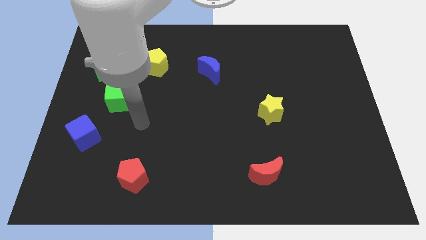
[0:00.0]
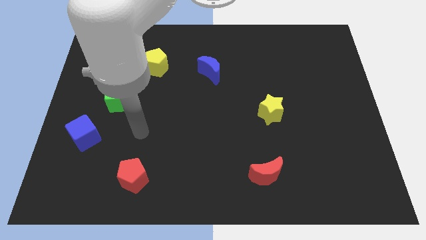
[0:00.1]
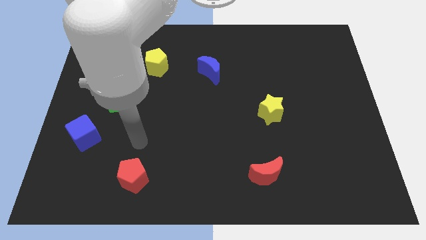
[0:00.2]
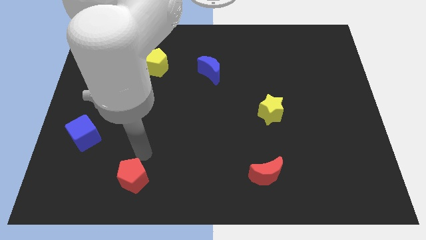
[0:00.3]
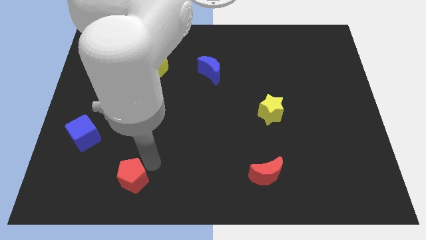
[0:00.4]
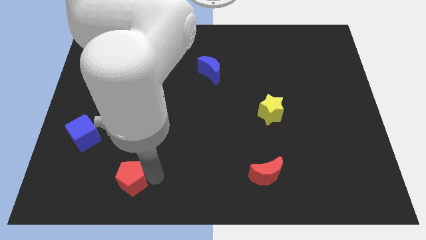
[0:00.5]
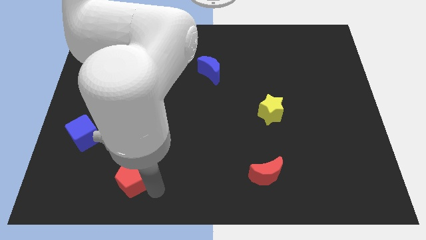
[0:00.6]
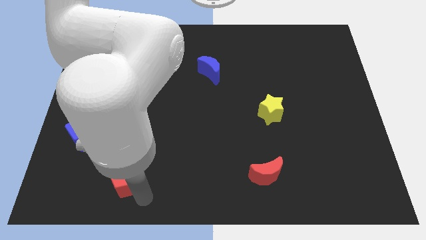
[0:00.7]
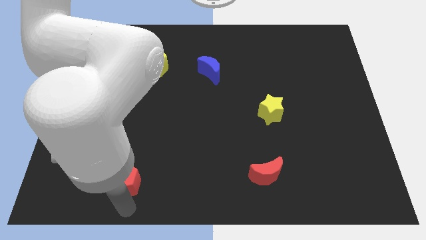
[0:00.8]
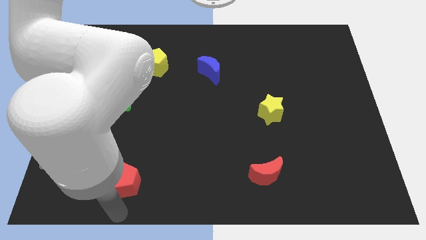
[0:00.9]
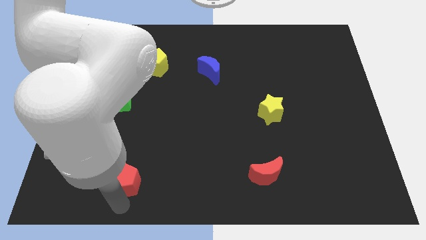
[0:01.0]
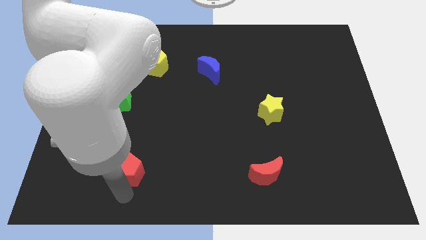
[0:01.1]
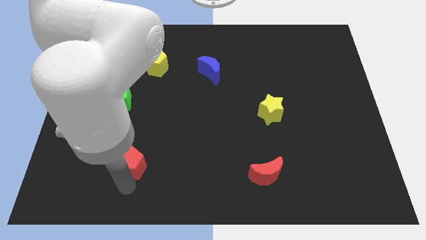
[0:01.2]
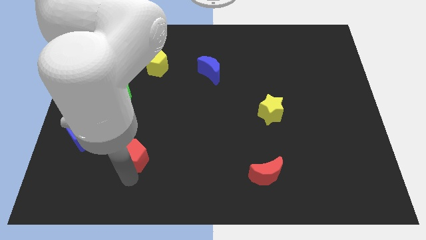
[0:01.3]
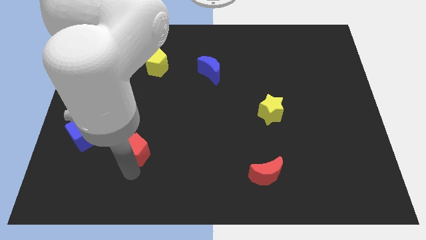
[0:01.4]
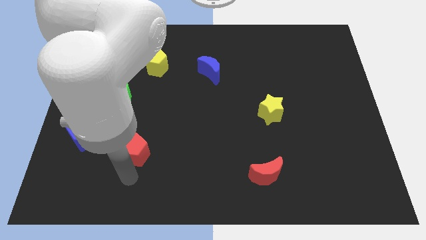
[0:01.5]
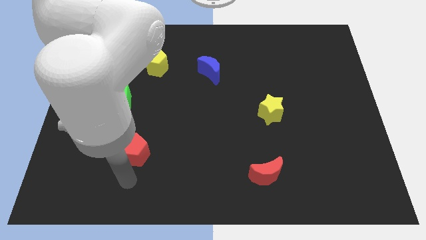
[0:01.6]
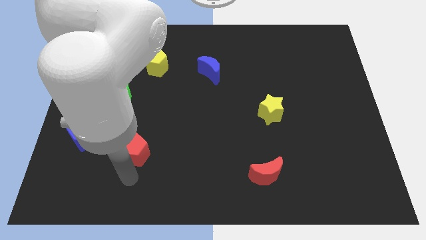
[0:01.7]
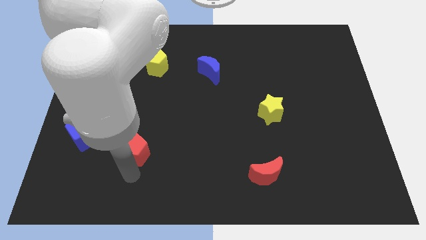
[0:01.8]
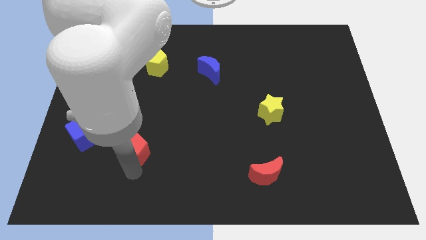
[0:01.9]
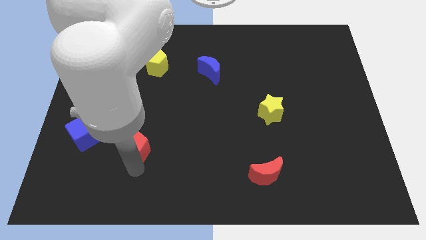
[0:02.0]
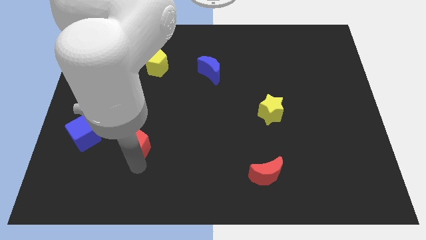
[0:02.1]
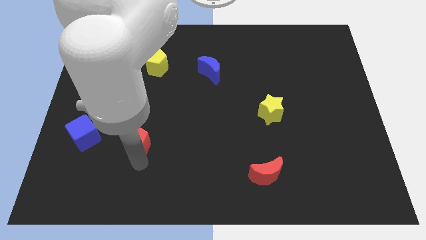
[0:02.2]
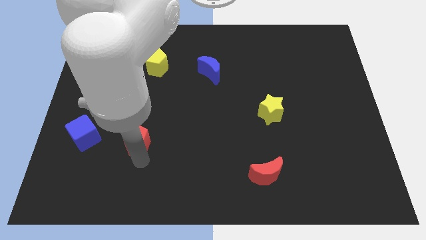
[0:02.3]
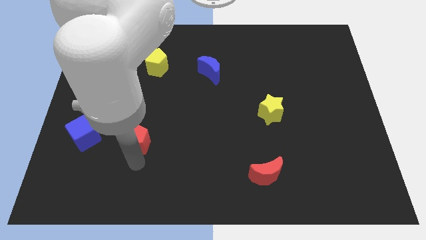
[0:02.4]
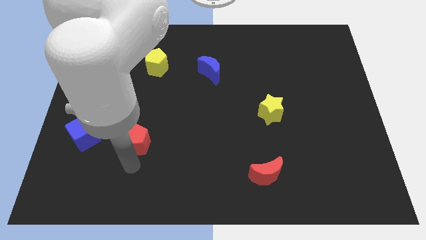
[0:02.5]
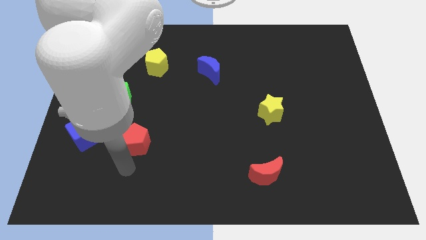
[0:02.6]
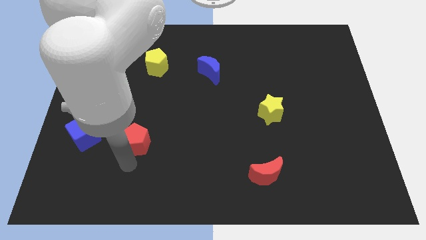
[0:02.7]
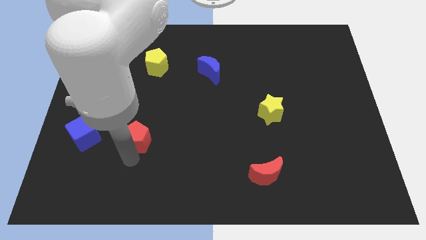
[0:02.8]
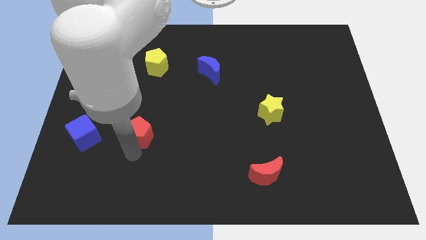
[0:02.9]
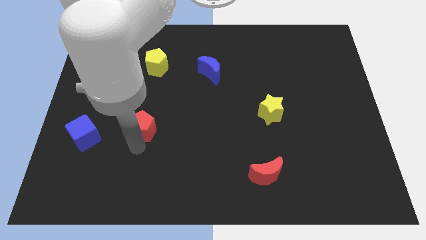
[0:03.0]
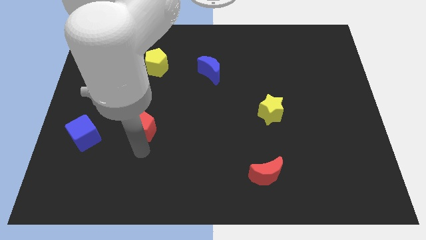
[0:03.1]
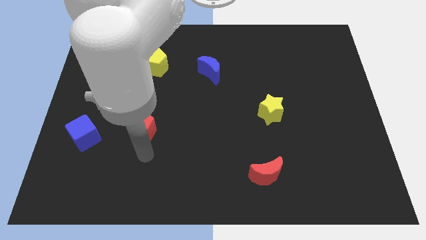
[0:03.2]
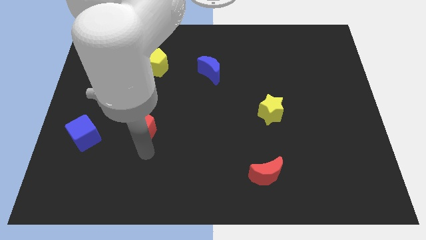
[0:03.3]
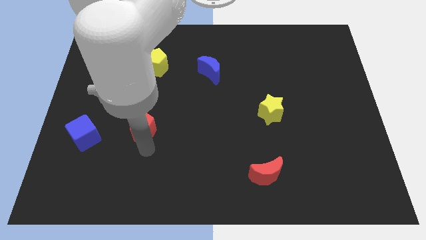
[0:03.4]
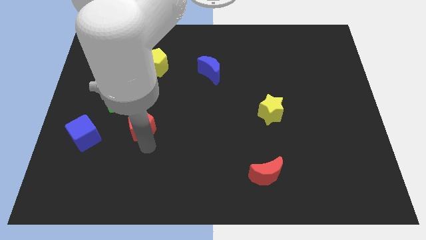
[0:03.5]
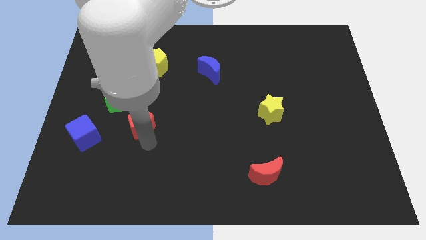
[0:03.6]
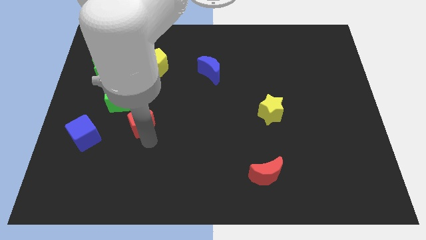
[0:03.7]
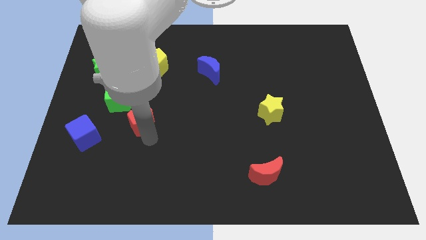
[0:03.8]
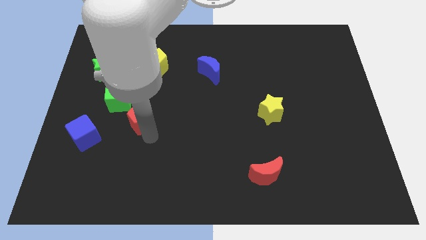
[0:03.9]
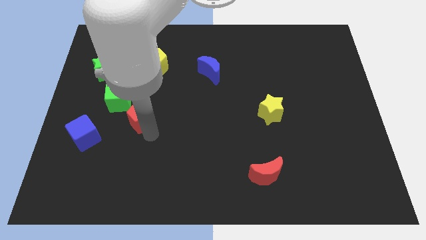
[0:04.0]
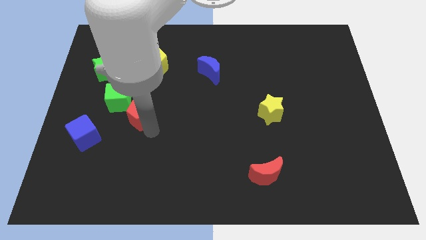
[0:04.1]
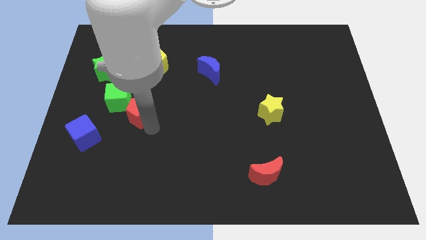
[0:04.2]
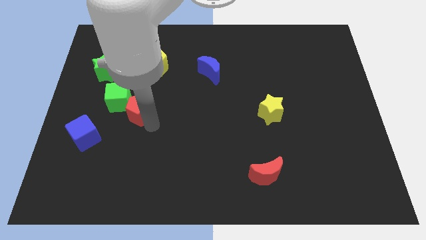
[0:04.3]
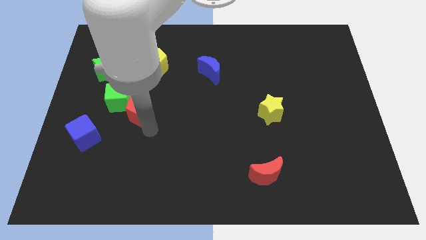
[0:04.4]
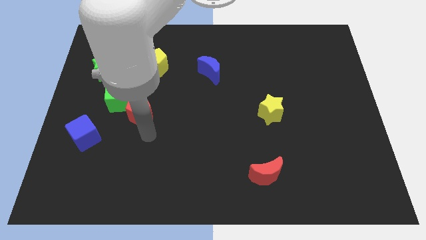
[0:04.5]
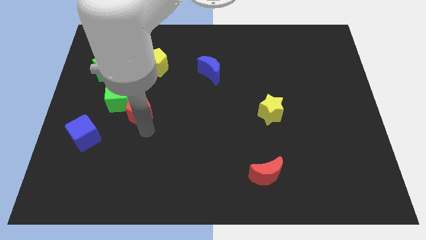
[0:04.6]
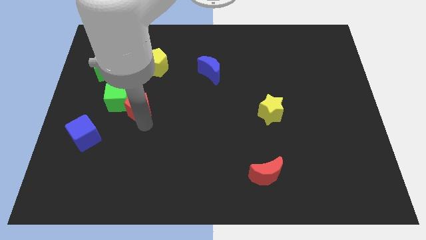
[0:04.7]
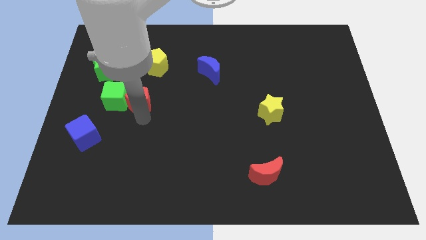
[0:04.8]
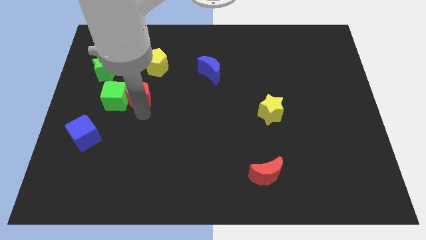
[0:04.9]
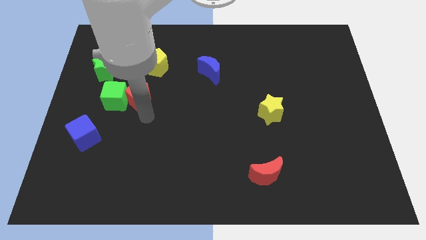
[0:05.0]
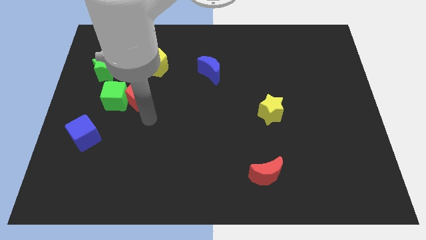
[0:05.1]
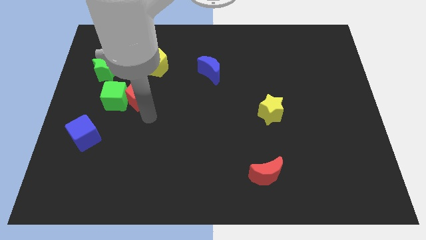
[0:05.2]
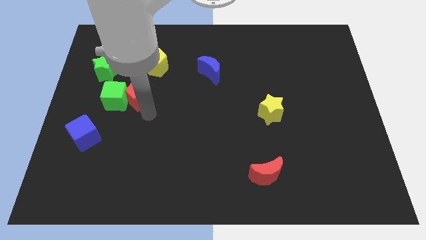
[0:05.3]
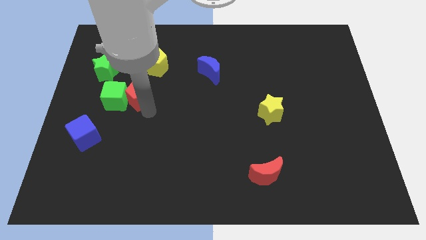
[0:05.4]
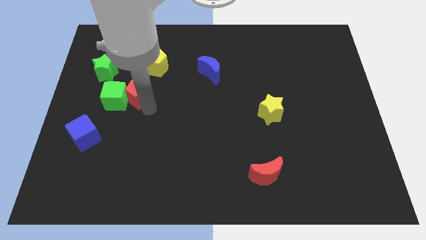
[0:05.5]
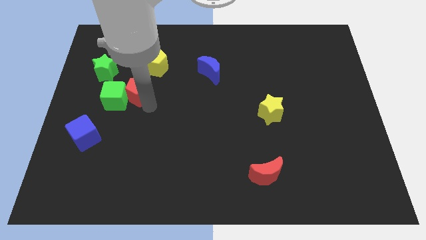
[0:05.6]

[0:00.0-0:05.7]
move the red pentagon to the bottom left of the yellow pentagon
